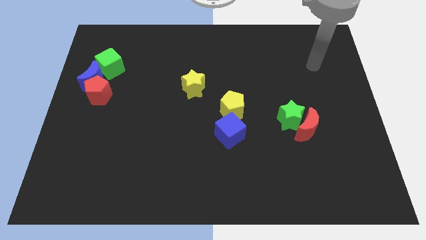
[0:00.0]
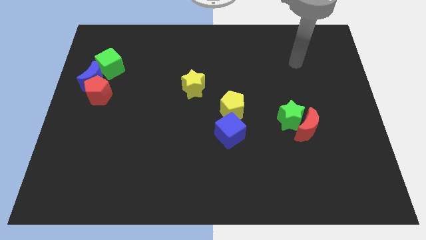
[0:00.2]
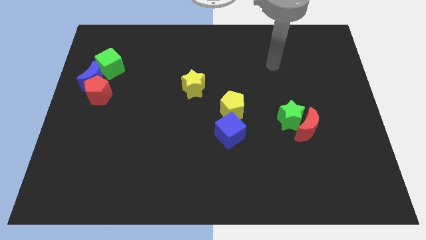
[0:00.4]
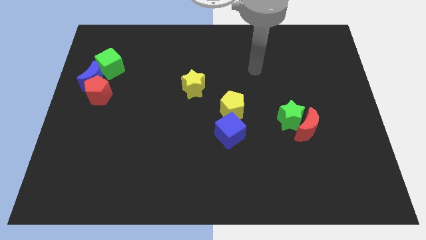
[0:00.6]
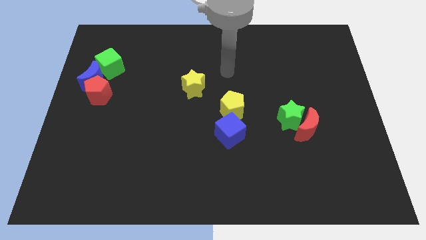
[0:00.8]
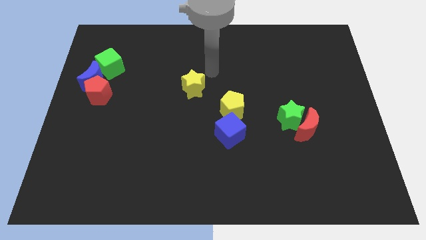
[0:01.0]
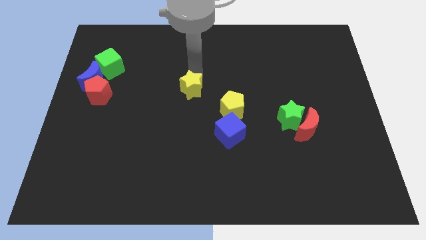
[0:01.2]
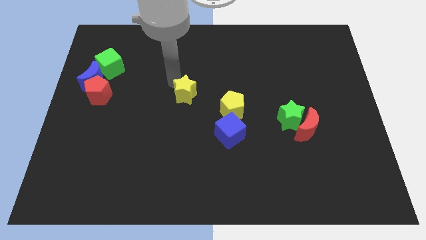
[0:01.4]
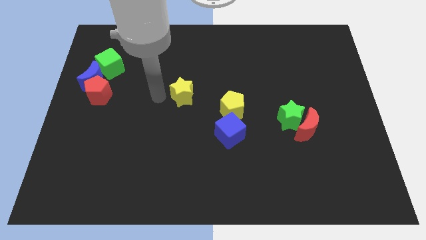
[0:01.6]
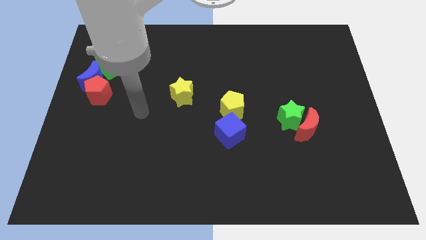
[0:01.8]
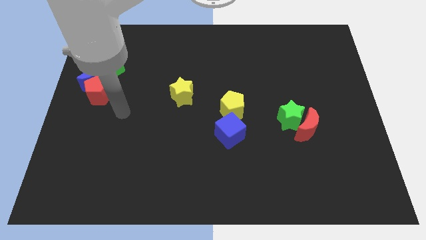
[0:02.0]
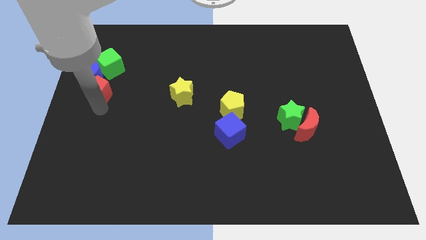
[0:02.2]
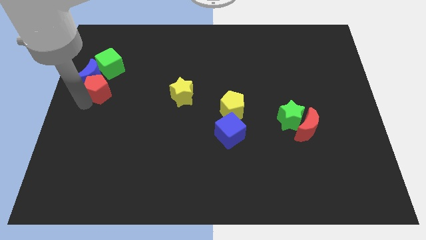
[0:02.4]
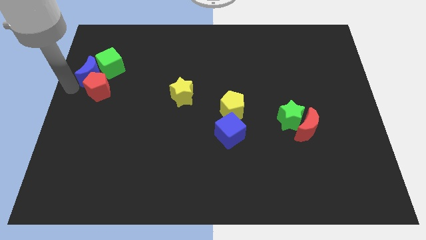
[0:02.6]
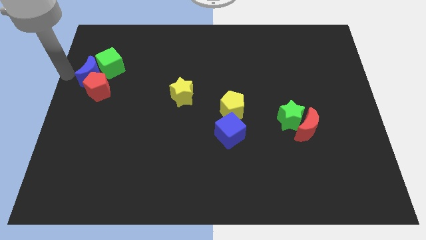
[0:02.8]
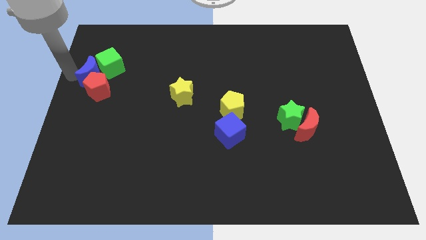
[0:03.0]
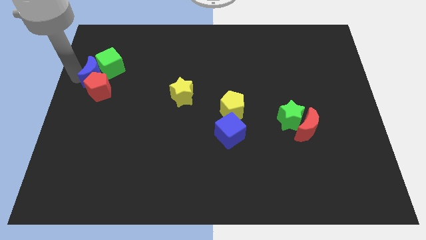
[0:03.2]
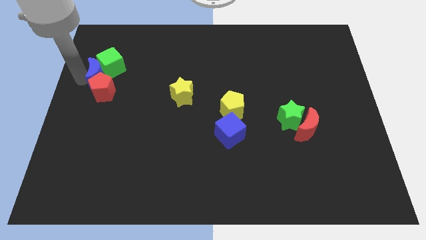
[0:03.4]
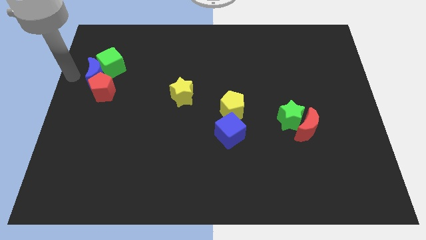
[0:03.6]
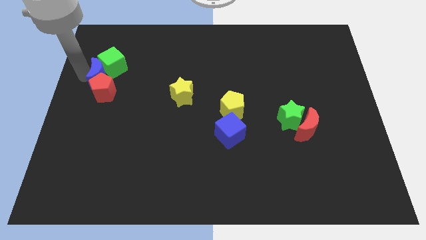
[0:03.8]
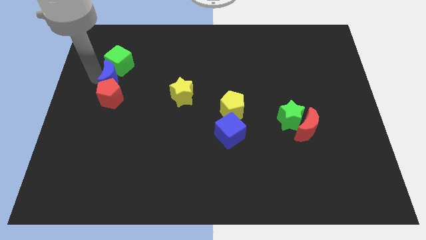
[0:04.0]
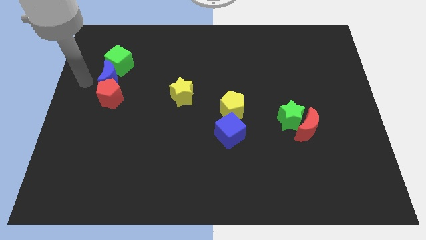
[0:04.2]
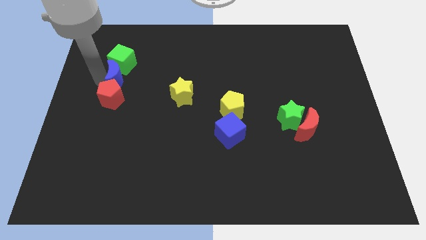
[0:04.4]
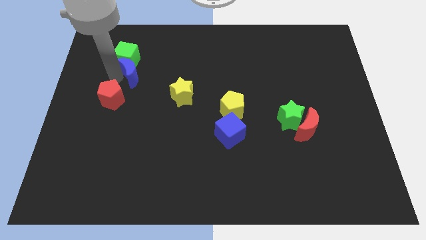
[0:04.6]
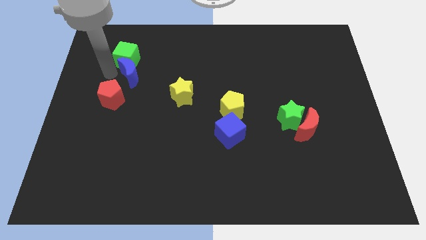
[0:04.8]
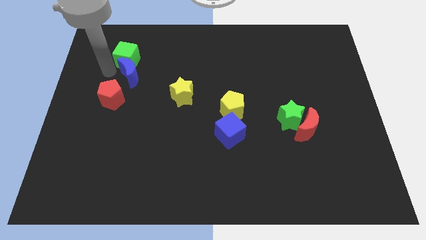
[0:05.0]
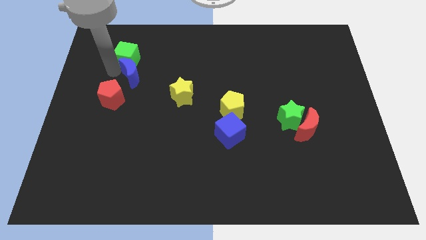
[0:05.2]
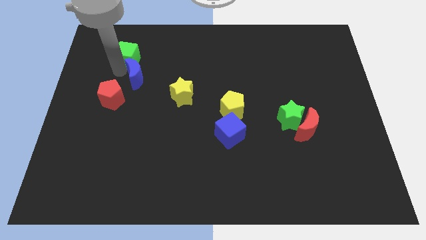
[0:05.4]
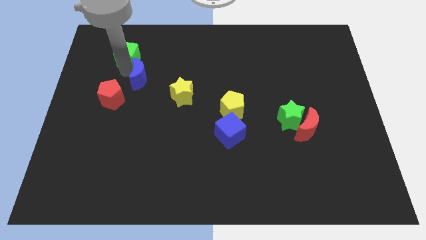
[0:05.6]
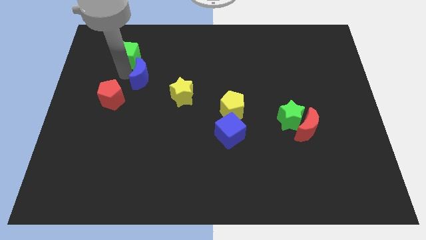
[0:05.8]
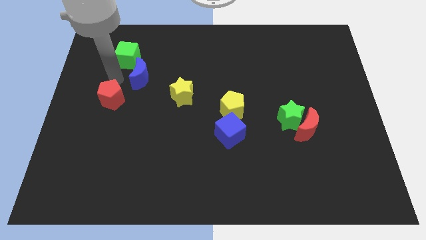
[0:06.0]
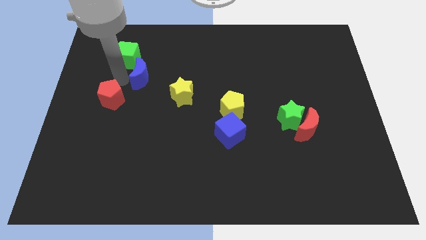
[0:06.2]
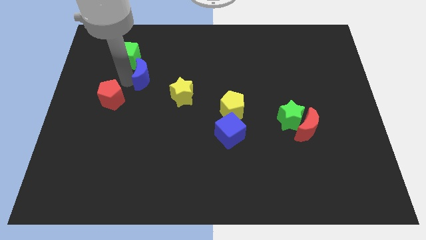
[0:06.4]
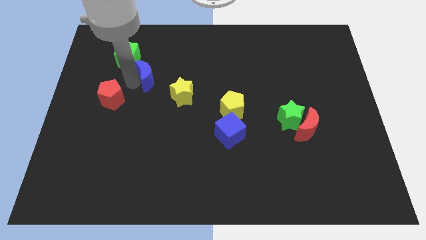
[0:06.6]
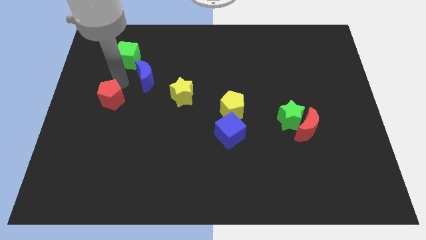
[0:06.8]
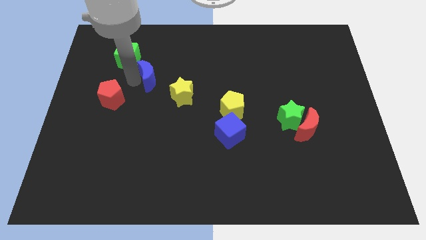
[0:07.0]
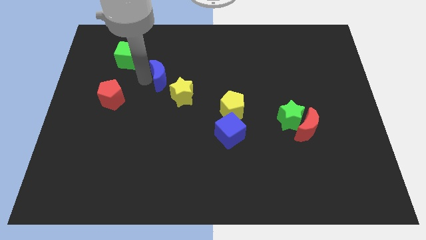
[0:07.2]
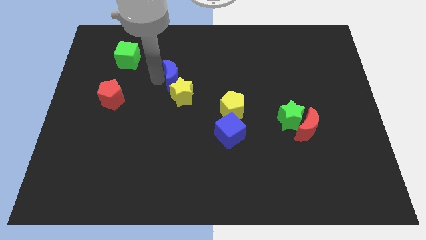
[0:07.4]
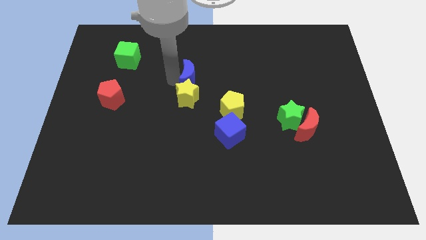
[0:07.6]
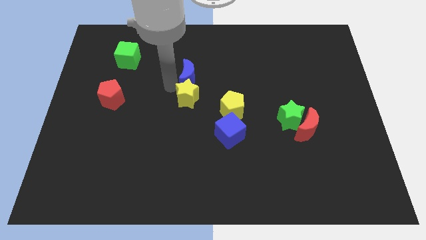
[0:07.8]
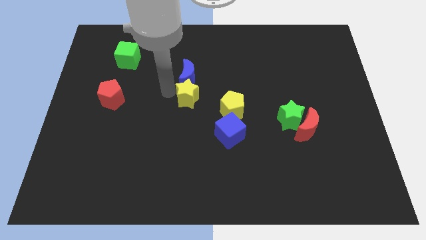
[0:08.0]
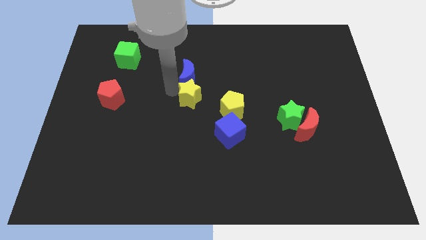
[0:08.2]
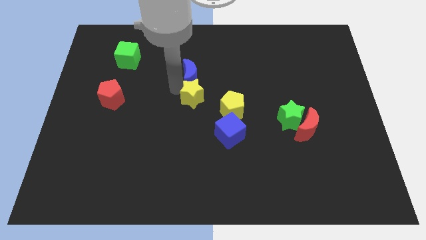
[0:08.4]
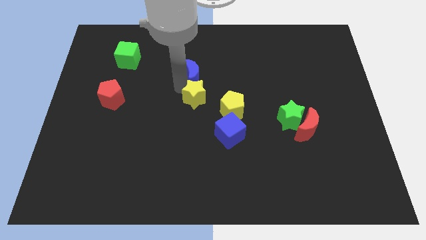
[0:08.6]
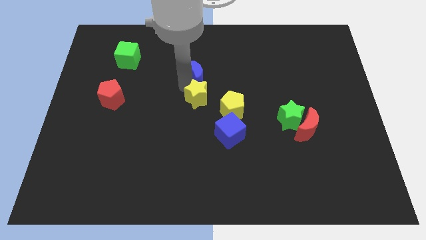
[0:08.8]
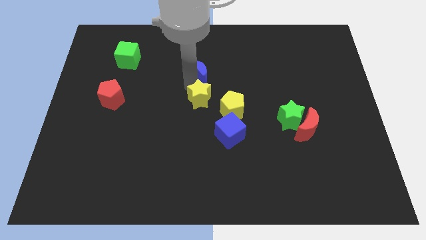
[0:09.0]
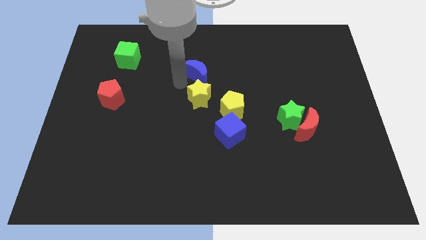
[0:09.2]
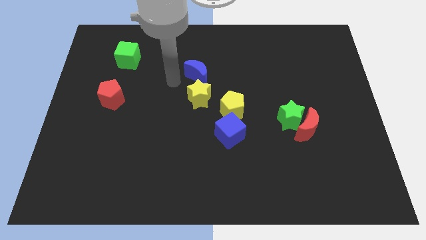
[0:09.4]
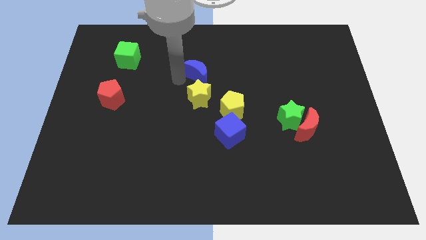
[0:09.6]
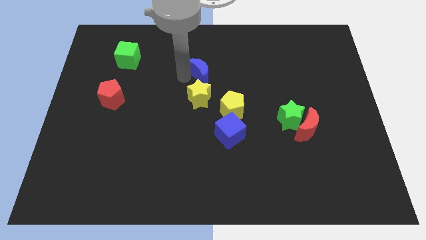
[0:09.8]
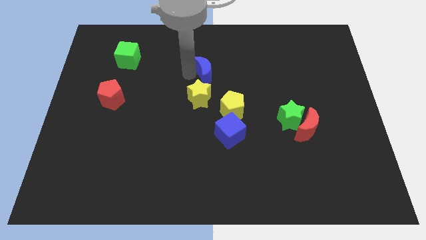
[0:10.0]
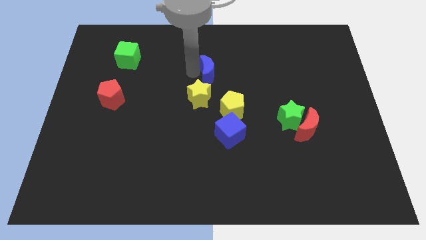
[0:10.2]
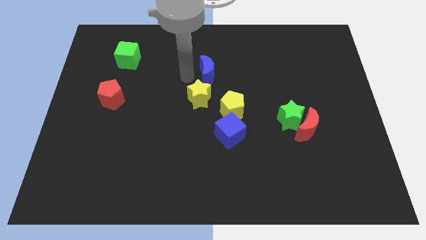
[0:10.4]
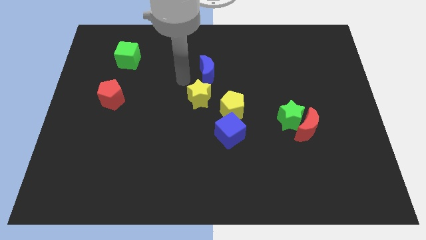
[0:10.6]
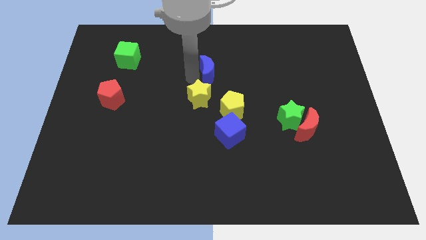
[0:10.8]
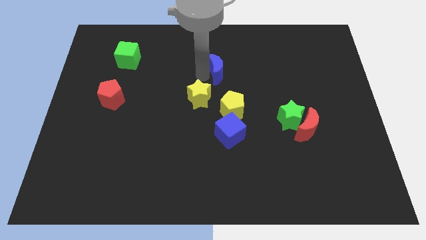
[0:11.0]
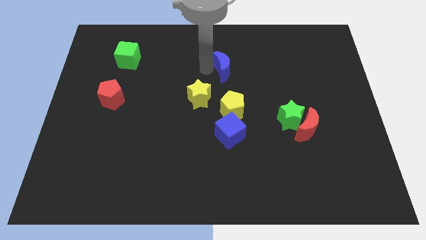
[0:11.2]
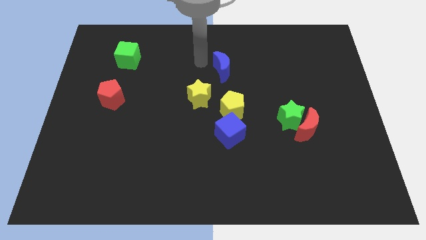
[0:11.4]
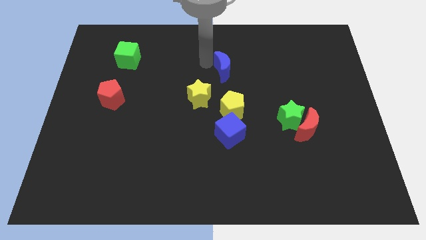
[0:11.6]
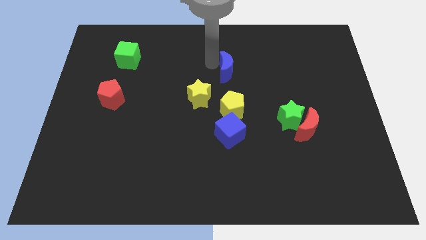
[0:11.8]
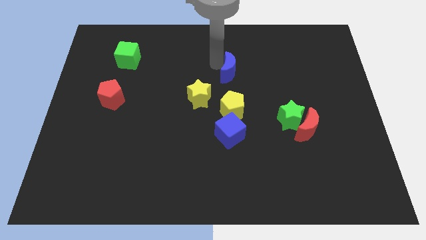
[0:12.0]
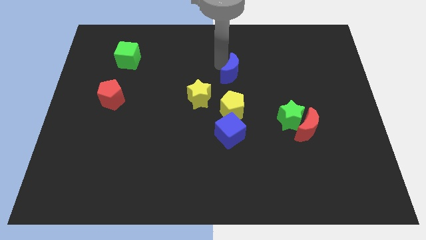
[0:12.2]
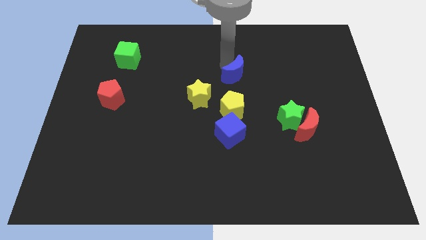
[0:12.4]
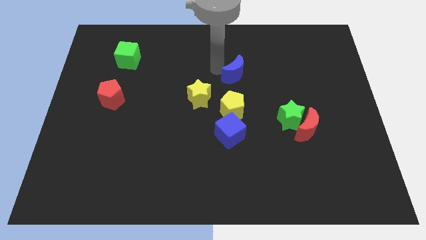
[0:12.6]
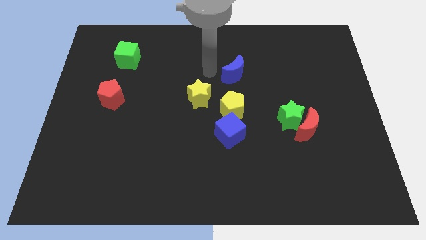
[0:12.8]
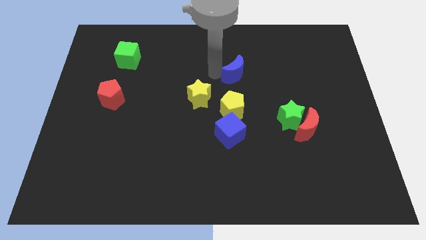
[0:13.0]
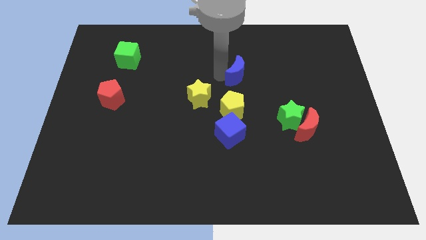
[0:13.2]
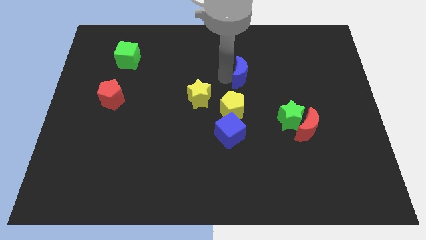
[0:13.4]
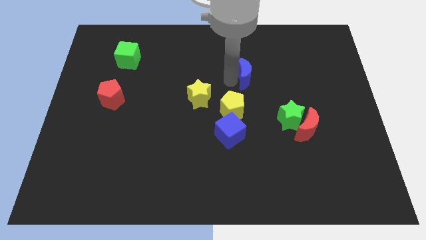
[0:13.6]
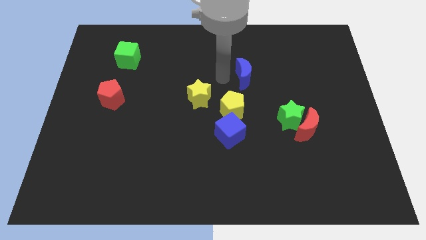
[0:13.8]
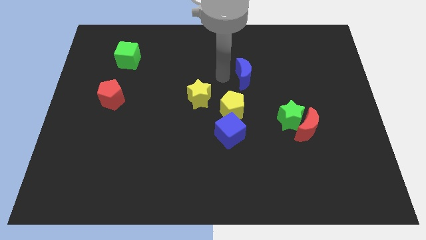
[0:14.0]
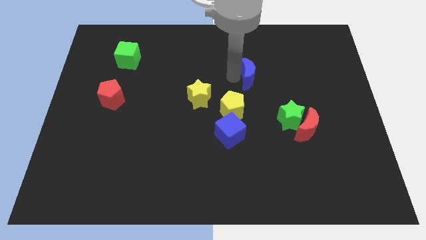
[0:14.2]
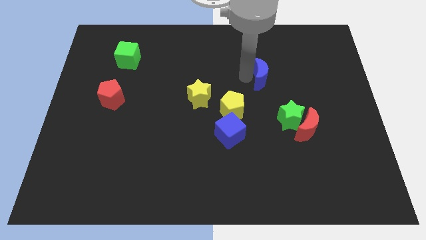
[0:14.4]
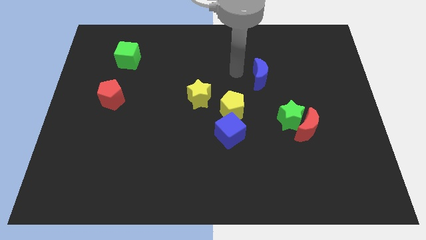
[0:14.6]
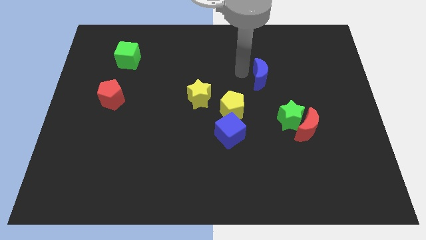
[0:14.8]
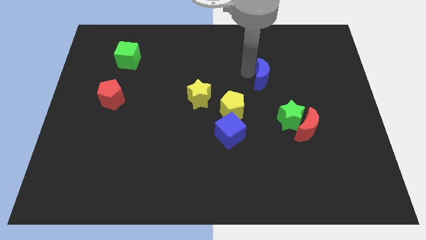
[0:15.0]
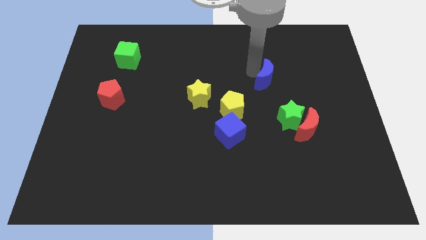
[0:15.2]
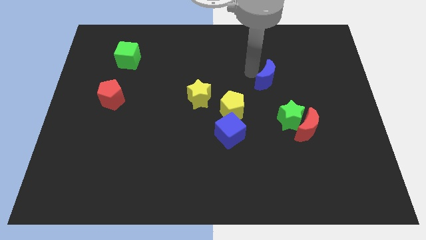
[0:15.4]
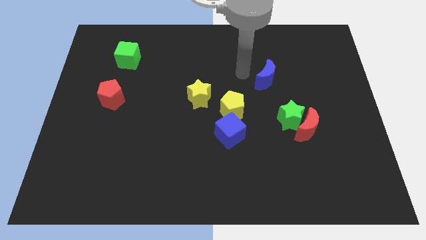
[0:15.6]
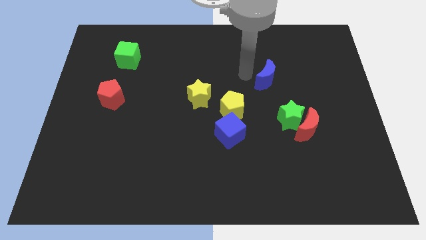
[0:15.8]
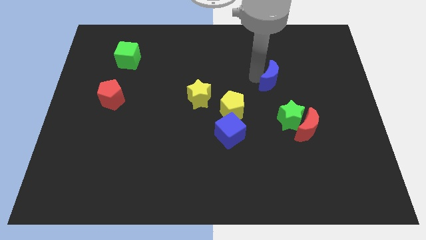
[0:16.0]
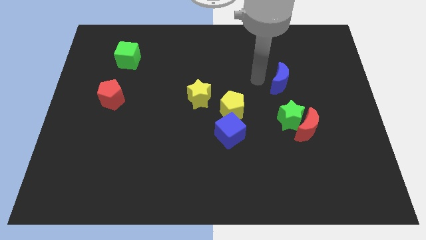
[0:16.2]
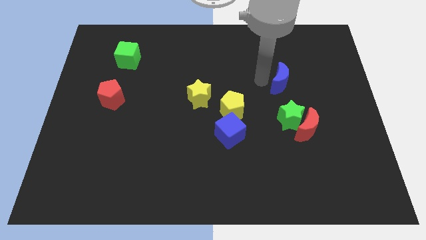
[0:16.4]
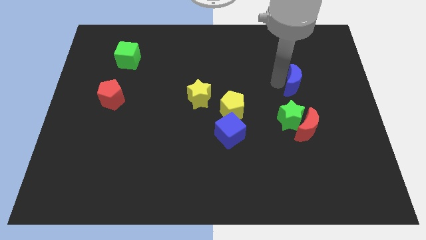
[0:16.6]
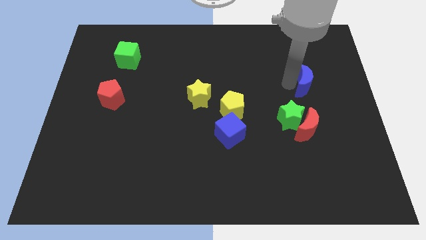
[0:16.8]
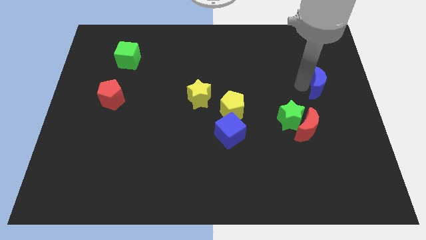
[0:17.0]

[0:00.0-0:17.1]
move the blue moon to the right side
